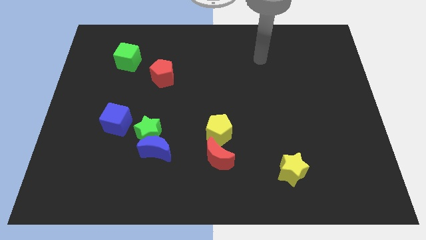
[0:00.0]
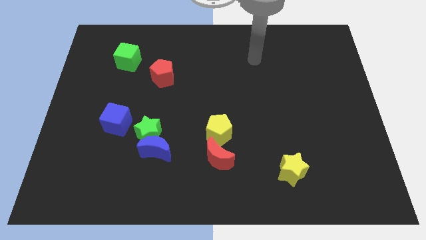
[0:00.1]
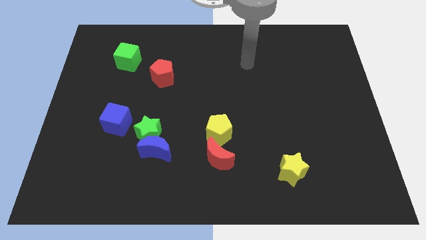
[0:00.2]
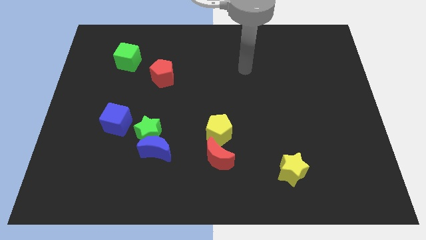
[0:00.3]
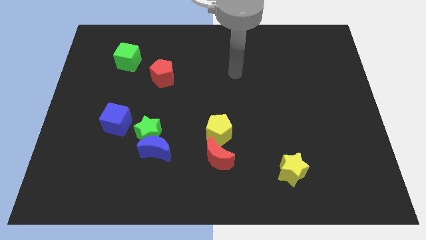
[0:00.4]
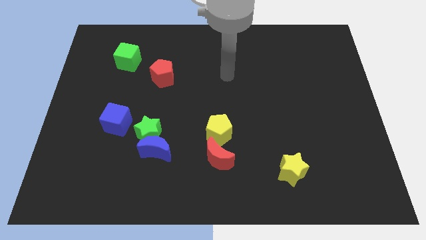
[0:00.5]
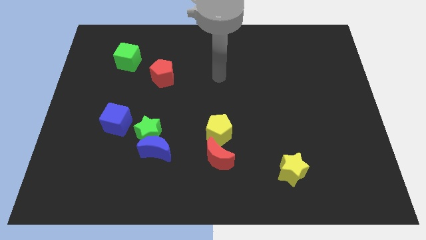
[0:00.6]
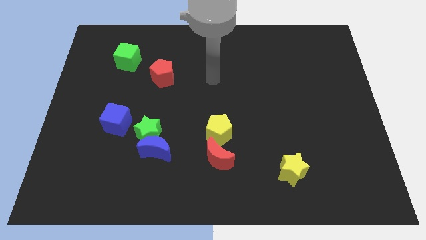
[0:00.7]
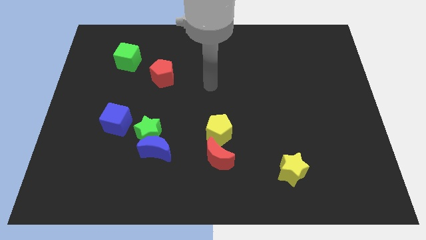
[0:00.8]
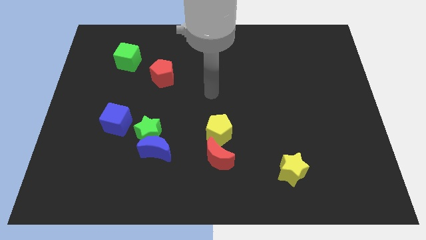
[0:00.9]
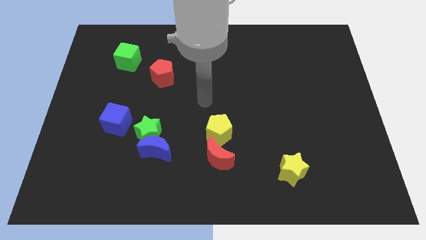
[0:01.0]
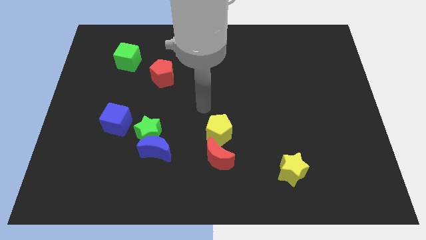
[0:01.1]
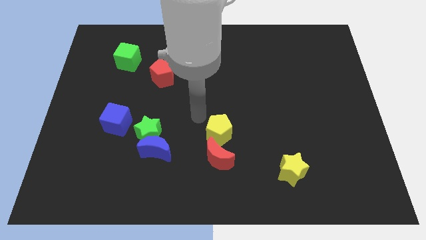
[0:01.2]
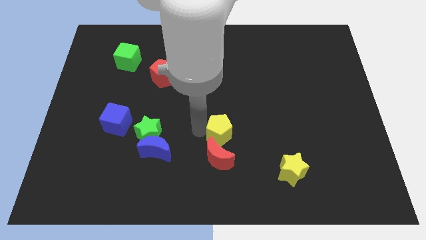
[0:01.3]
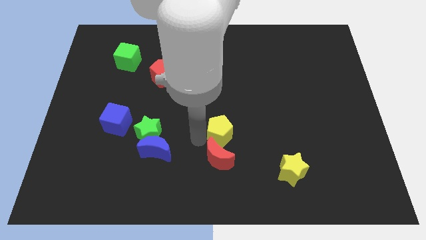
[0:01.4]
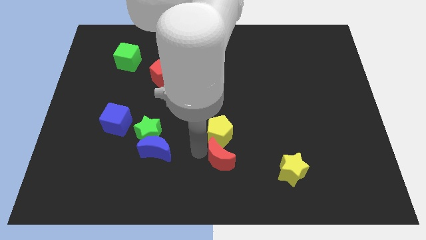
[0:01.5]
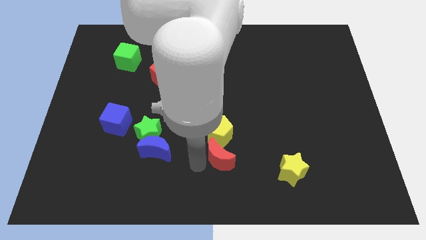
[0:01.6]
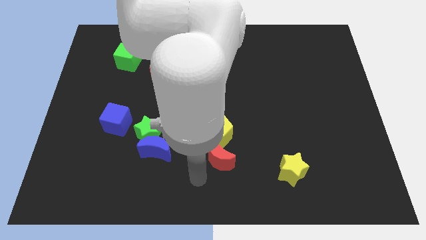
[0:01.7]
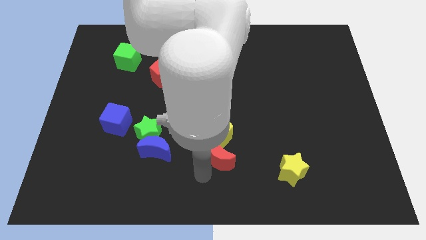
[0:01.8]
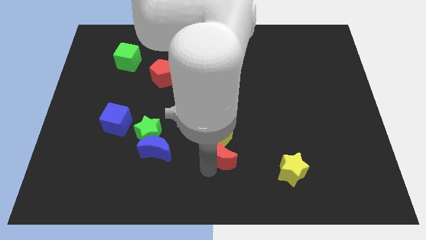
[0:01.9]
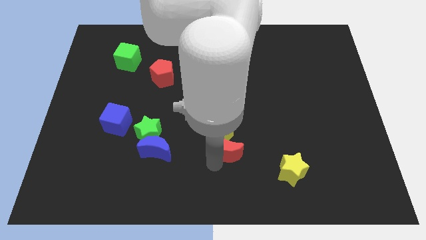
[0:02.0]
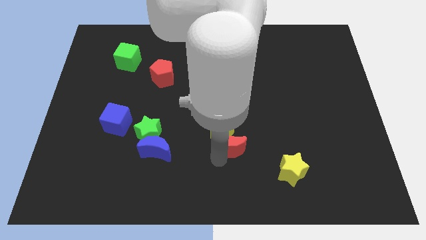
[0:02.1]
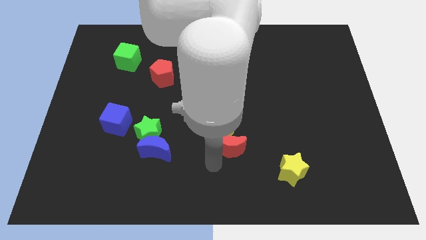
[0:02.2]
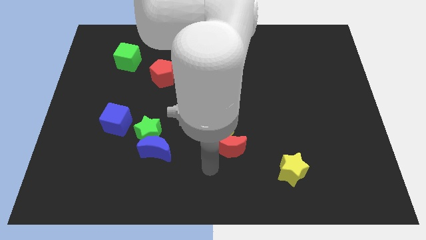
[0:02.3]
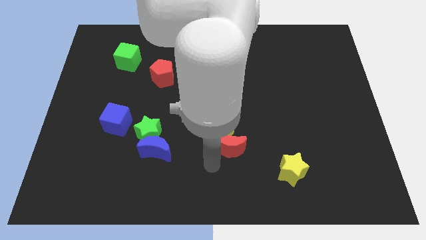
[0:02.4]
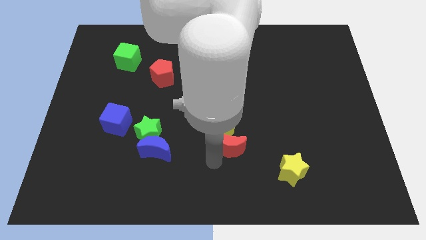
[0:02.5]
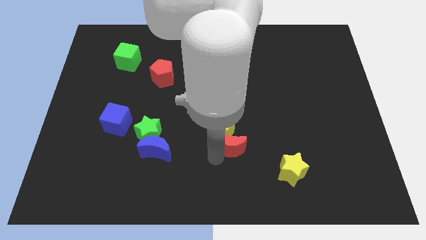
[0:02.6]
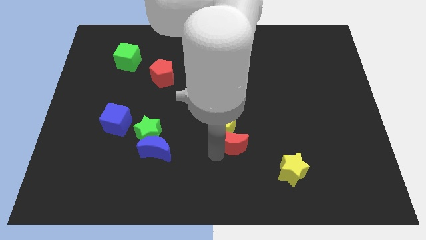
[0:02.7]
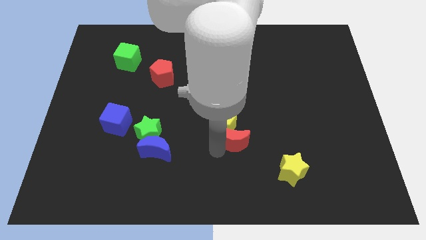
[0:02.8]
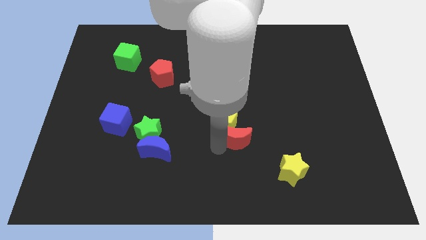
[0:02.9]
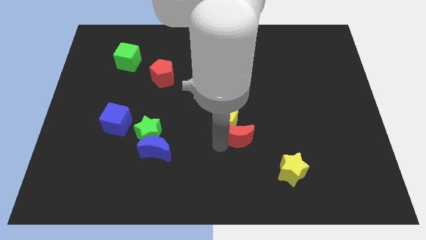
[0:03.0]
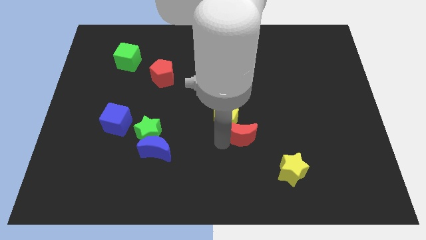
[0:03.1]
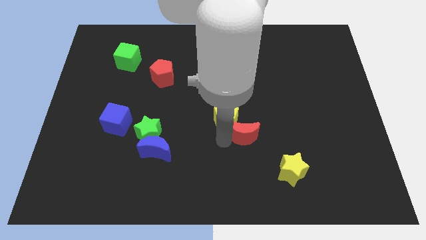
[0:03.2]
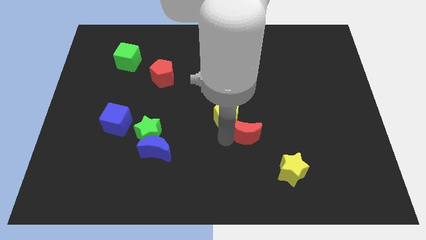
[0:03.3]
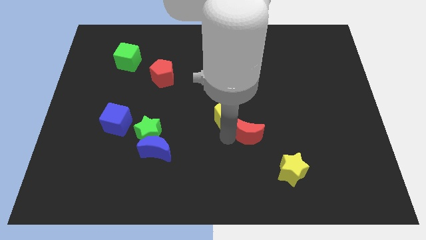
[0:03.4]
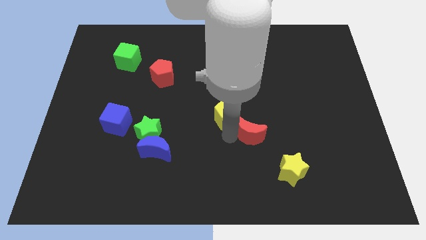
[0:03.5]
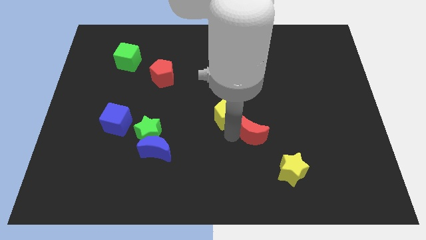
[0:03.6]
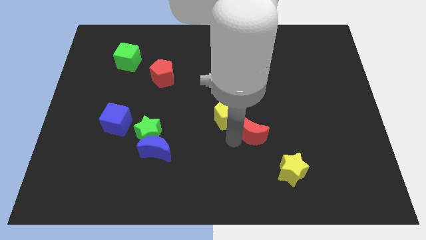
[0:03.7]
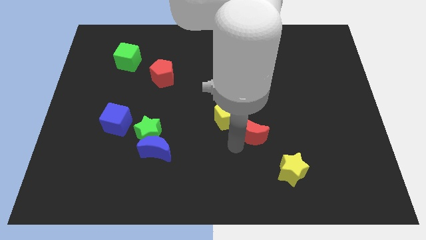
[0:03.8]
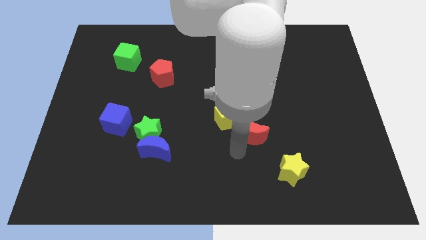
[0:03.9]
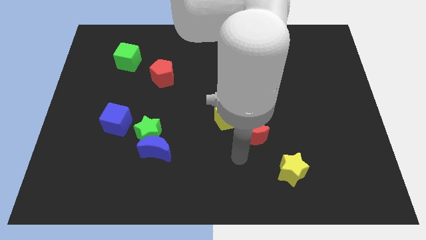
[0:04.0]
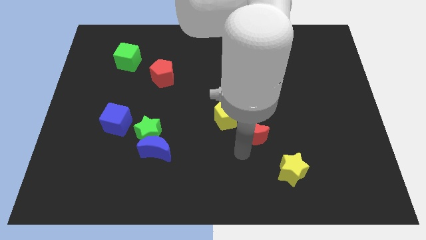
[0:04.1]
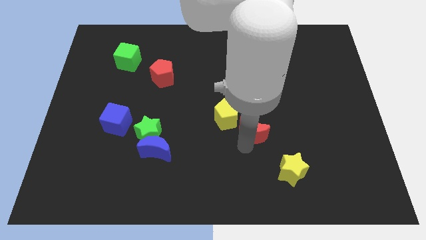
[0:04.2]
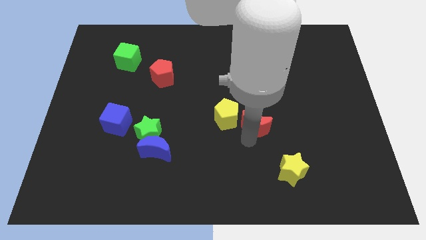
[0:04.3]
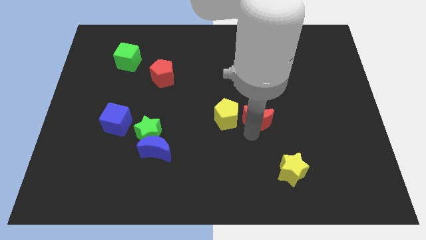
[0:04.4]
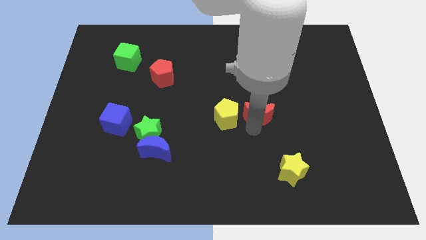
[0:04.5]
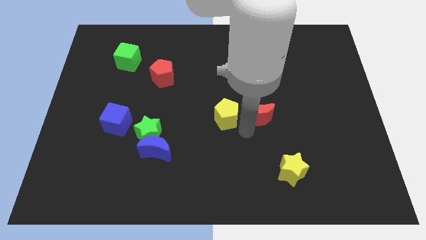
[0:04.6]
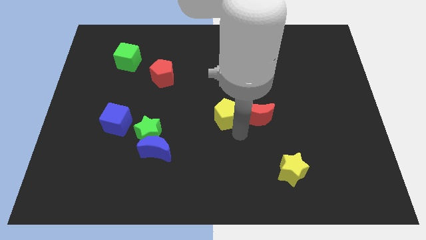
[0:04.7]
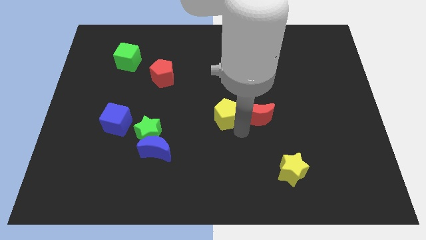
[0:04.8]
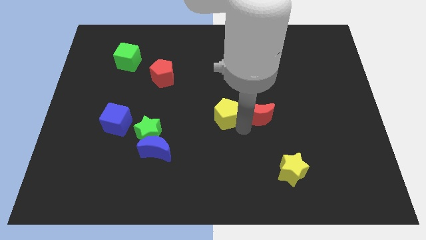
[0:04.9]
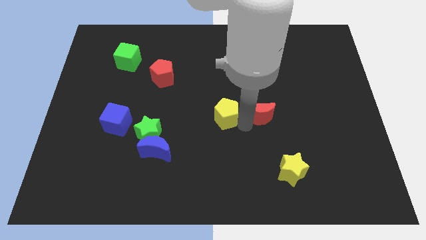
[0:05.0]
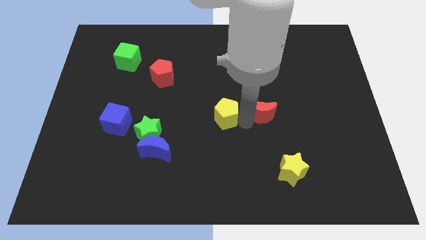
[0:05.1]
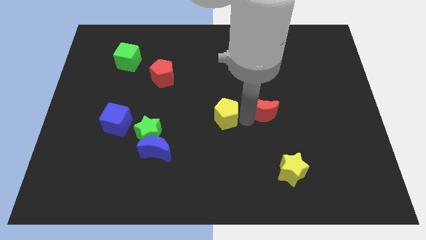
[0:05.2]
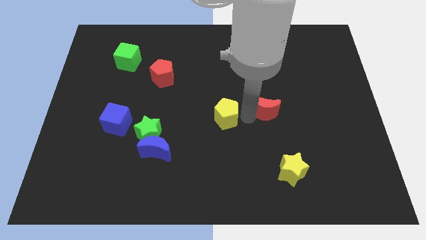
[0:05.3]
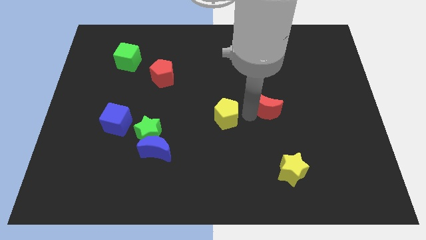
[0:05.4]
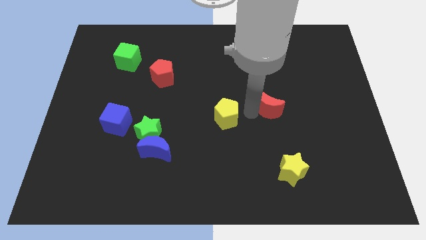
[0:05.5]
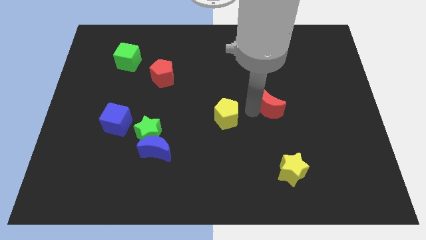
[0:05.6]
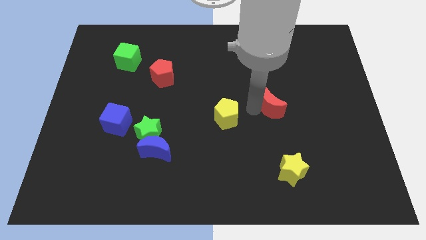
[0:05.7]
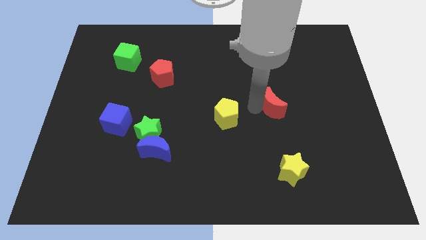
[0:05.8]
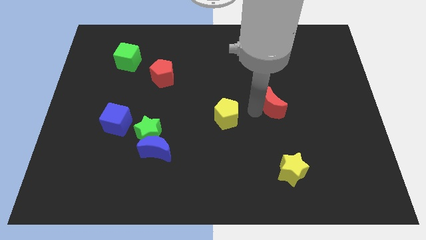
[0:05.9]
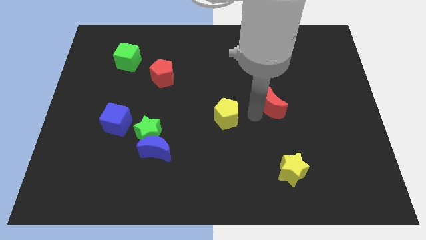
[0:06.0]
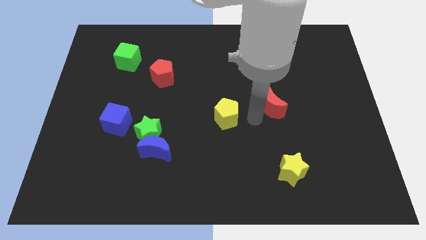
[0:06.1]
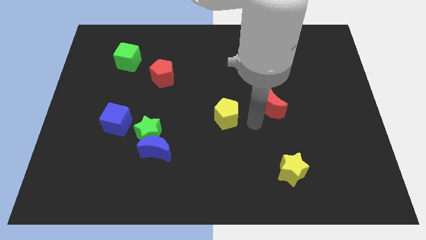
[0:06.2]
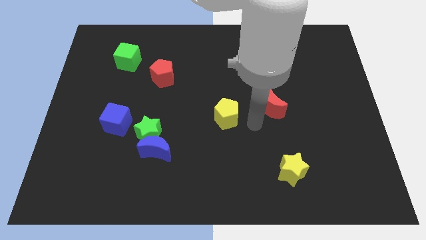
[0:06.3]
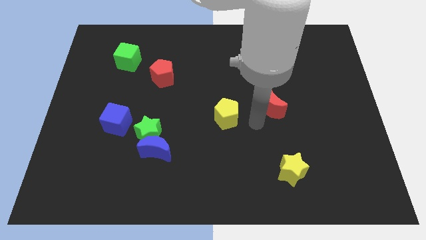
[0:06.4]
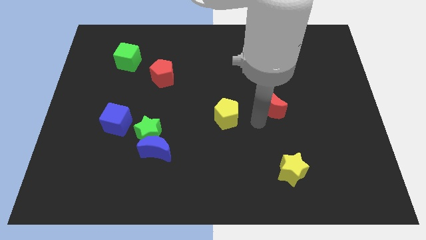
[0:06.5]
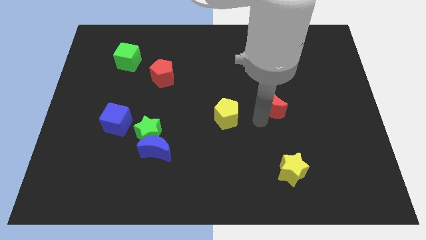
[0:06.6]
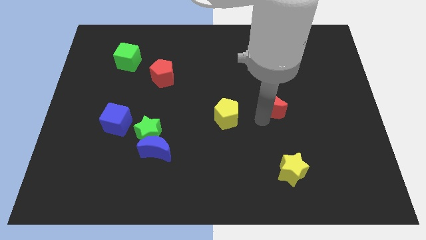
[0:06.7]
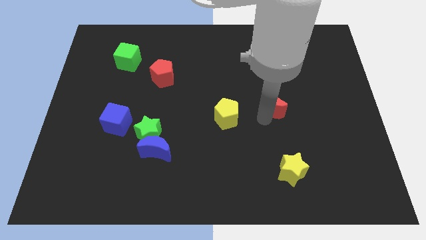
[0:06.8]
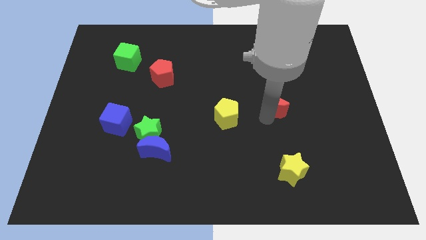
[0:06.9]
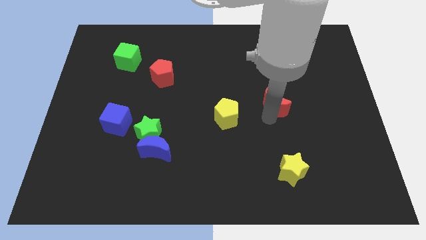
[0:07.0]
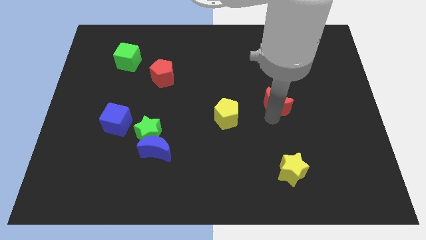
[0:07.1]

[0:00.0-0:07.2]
move the red moon upwards and then right

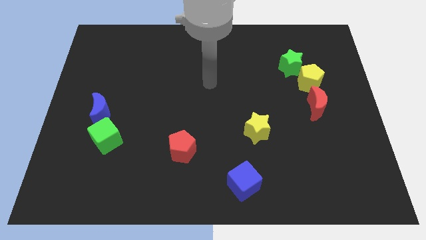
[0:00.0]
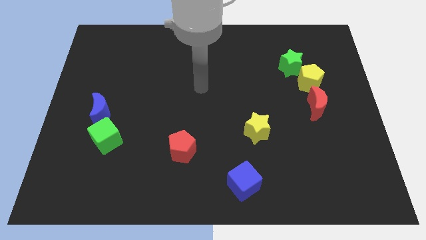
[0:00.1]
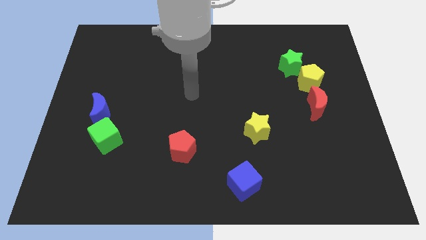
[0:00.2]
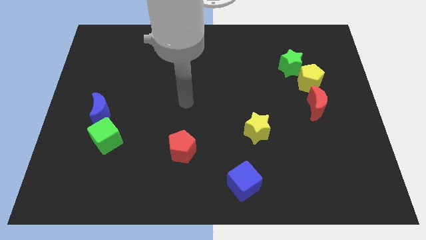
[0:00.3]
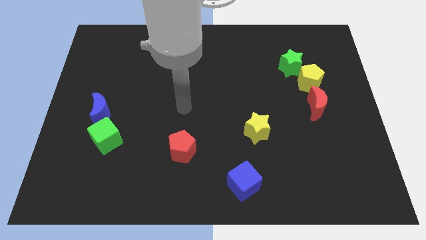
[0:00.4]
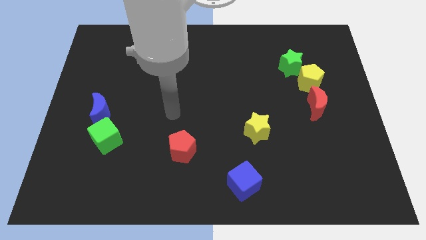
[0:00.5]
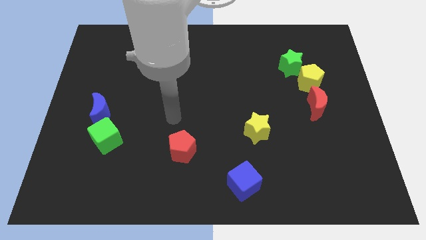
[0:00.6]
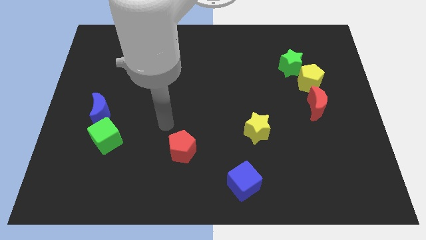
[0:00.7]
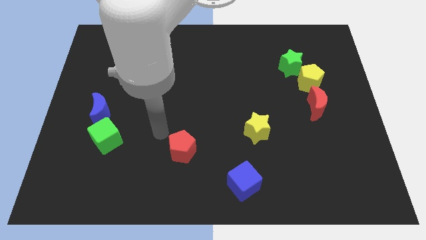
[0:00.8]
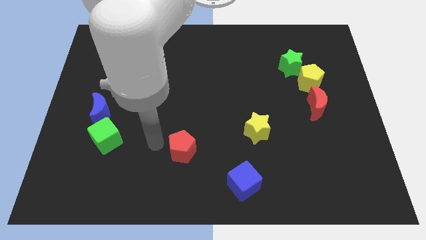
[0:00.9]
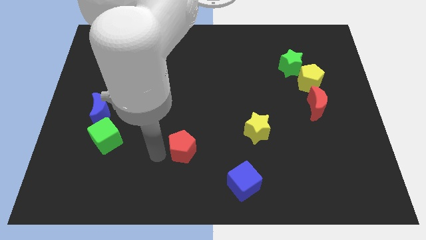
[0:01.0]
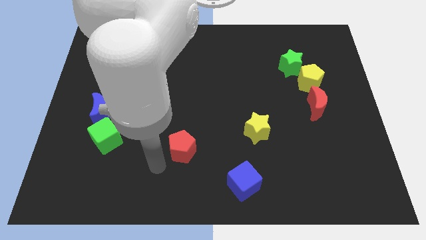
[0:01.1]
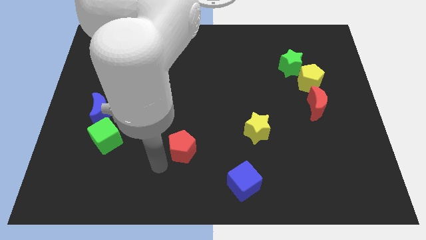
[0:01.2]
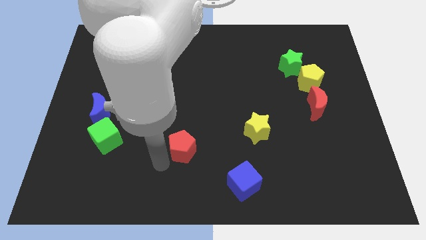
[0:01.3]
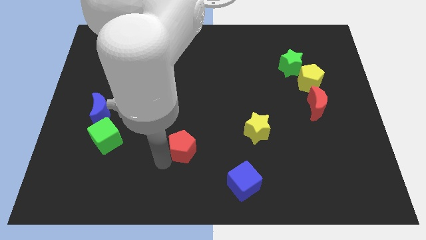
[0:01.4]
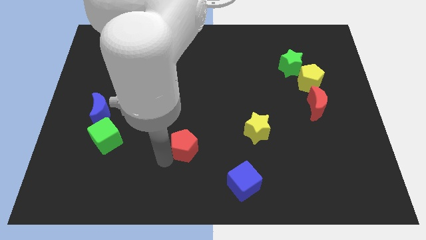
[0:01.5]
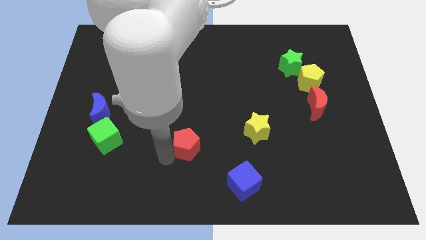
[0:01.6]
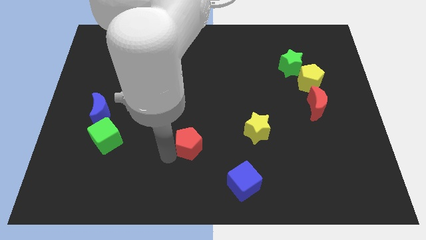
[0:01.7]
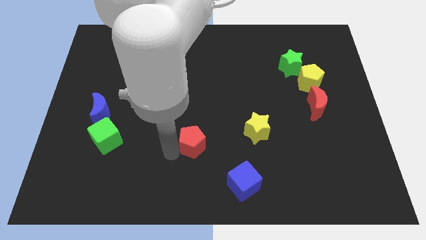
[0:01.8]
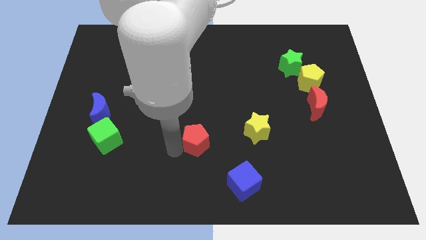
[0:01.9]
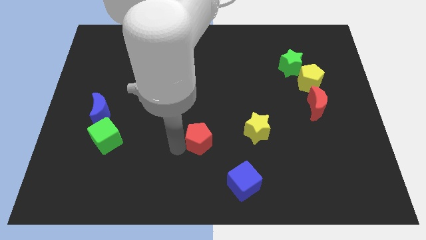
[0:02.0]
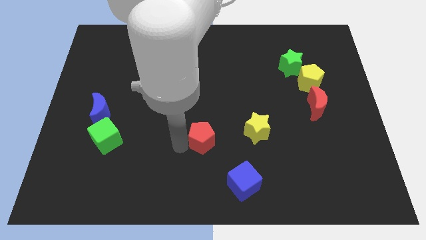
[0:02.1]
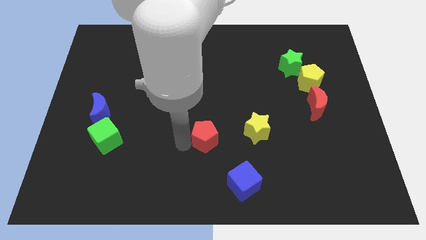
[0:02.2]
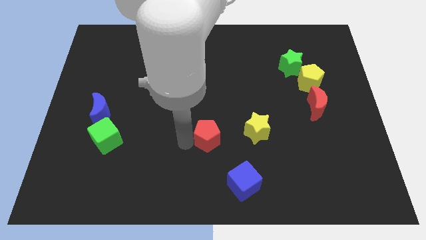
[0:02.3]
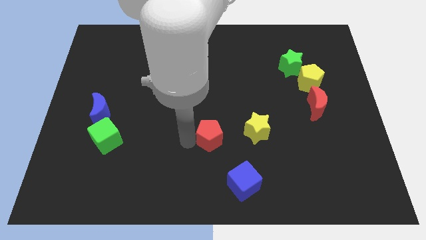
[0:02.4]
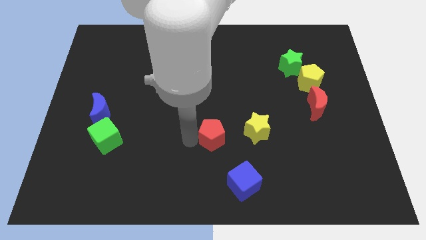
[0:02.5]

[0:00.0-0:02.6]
move the red pentagon upwards and then right a bit
